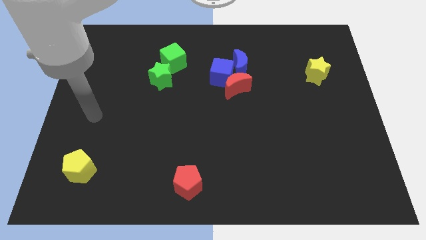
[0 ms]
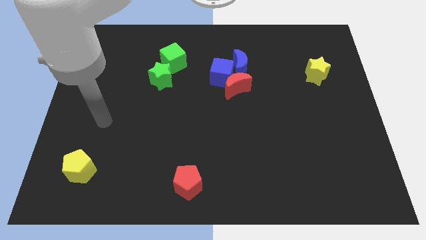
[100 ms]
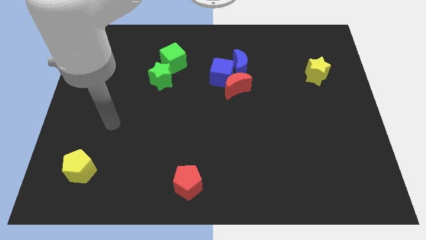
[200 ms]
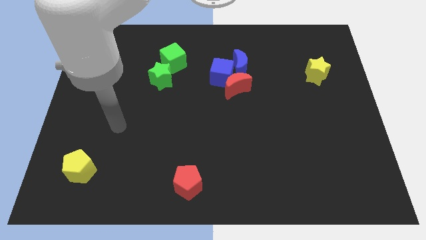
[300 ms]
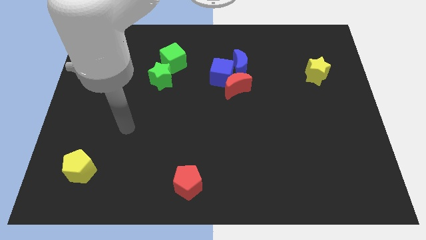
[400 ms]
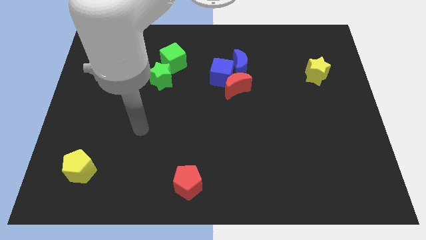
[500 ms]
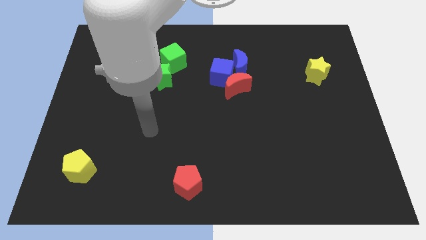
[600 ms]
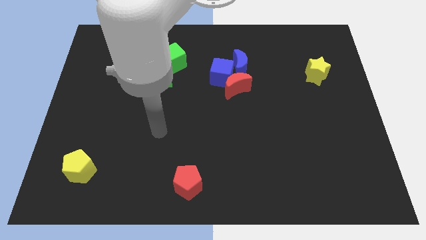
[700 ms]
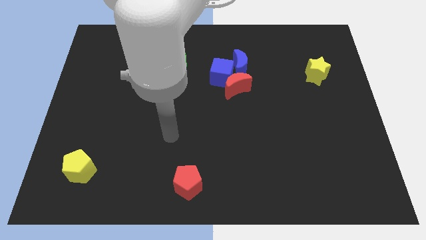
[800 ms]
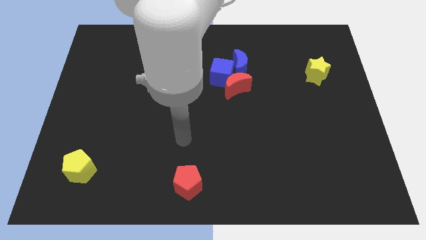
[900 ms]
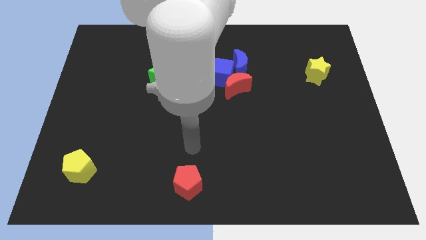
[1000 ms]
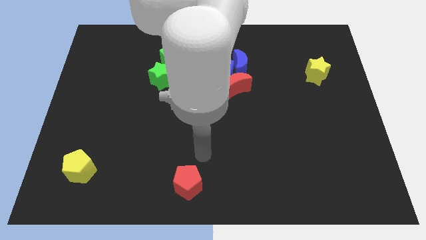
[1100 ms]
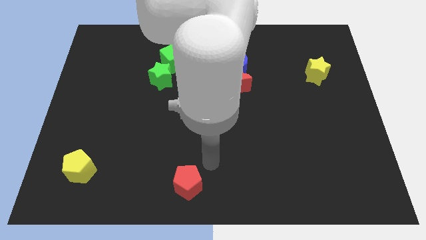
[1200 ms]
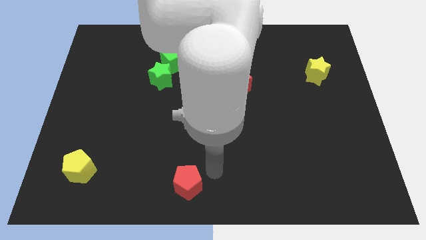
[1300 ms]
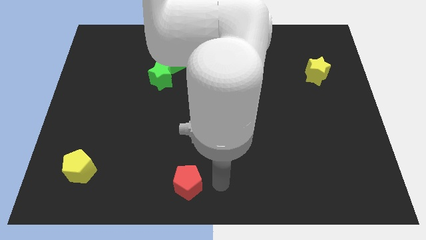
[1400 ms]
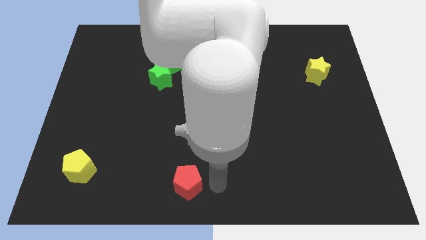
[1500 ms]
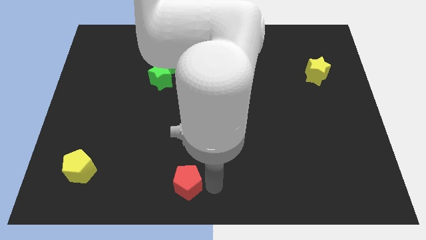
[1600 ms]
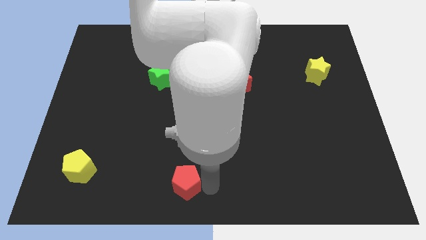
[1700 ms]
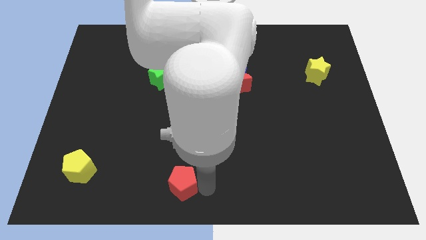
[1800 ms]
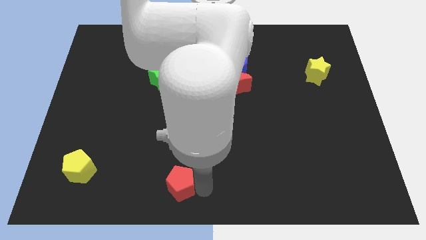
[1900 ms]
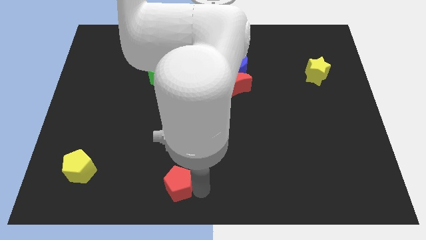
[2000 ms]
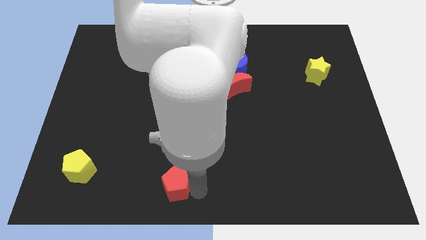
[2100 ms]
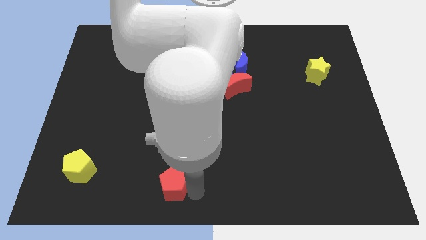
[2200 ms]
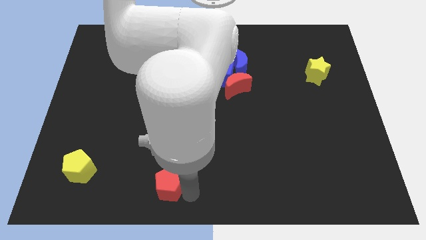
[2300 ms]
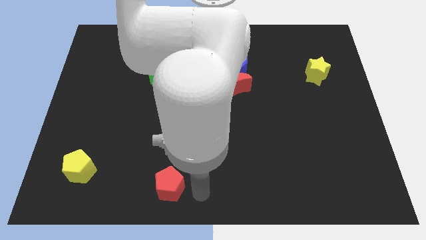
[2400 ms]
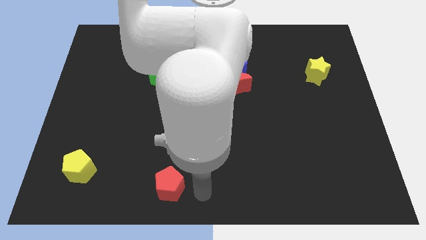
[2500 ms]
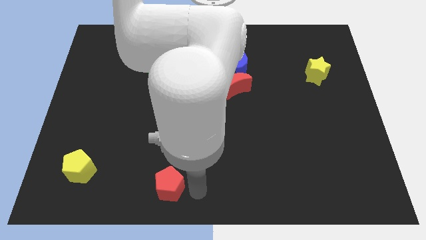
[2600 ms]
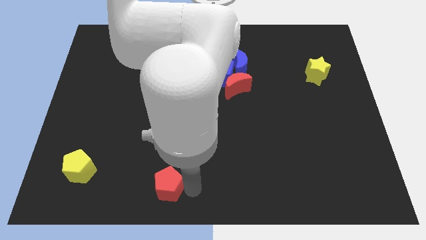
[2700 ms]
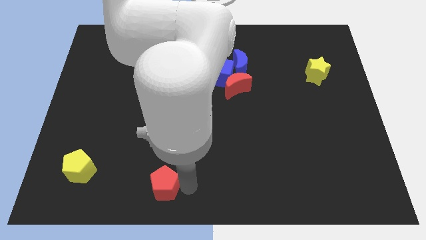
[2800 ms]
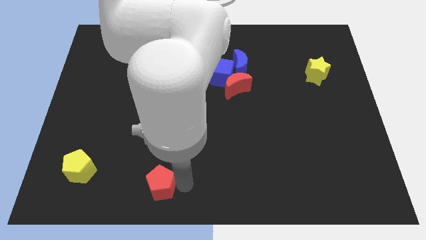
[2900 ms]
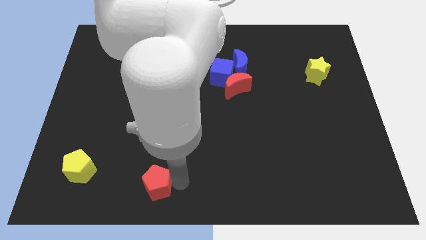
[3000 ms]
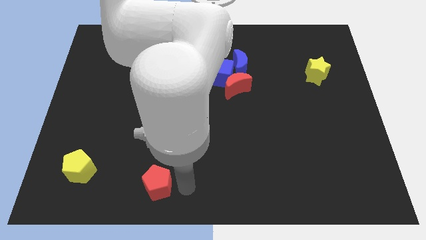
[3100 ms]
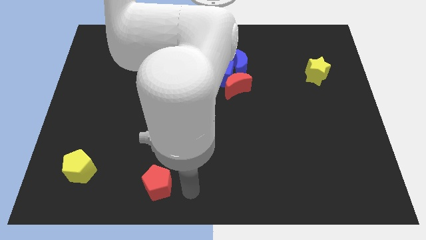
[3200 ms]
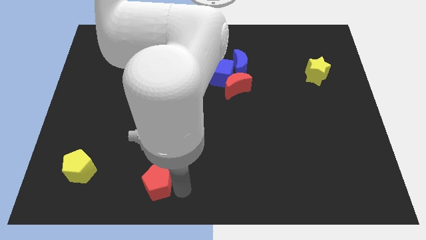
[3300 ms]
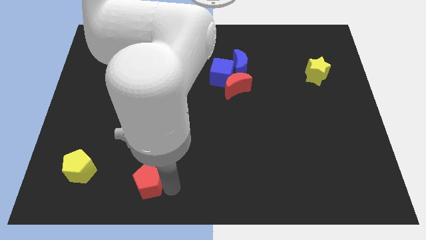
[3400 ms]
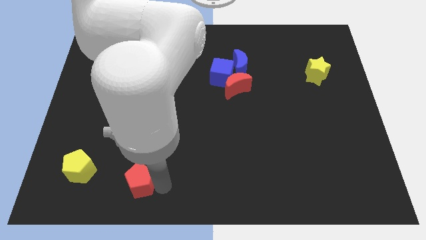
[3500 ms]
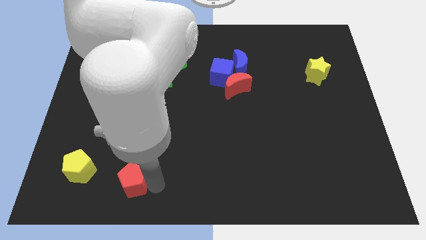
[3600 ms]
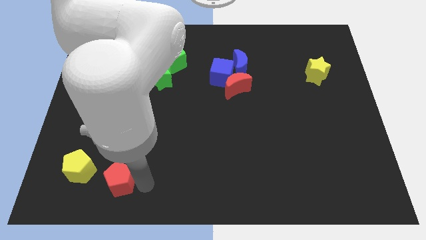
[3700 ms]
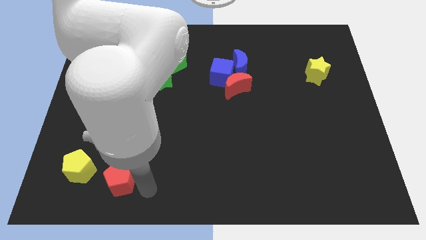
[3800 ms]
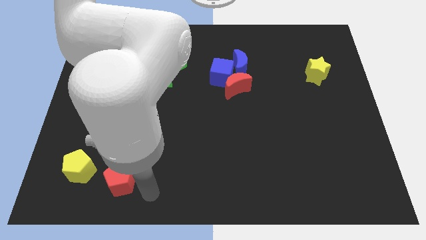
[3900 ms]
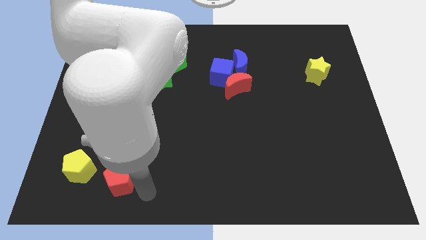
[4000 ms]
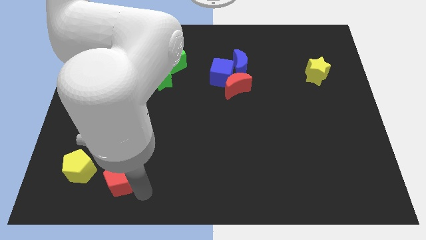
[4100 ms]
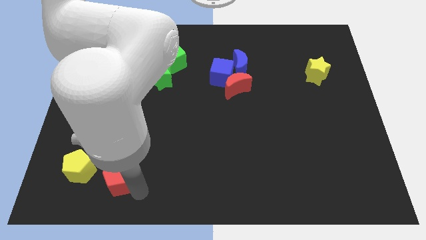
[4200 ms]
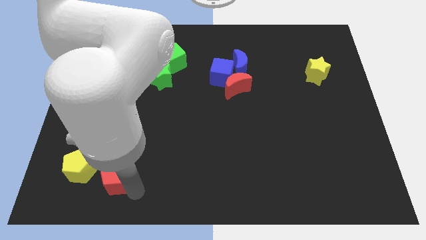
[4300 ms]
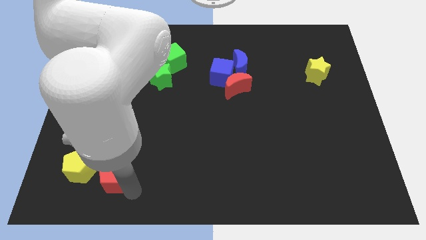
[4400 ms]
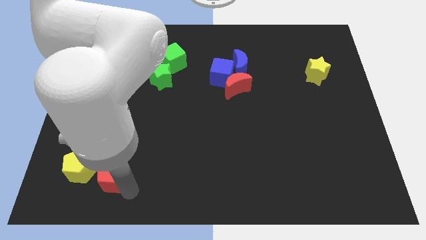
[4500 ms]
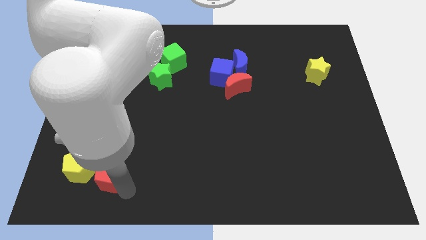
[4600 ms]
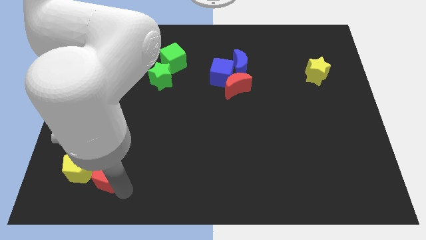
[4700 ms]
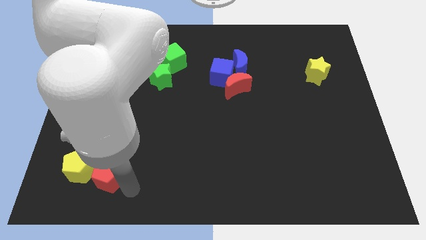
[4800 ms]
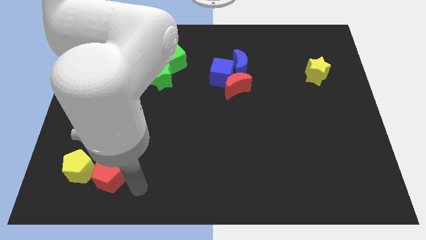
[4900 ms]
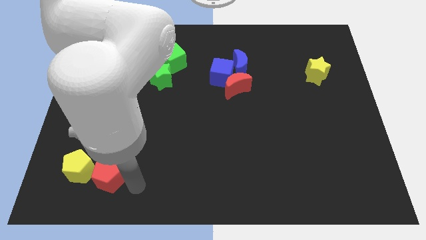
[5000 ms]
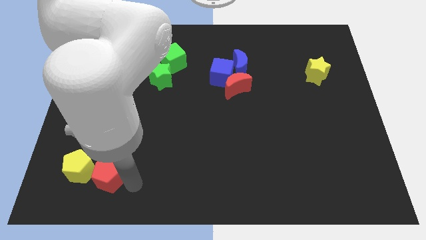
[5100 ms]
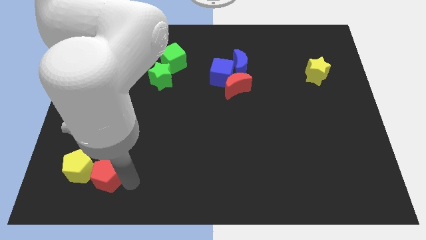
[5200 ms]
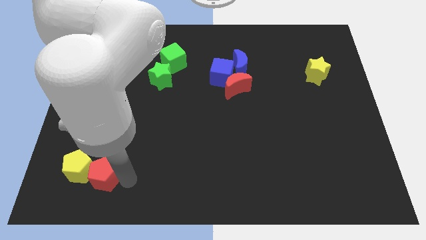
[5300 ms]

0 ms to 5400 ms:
push the red pentagon next to the yellow pentagon

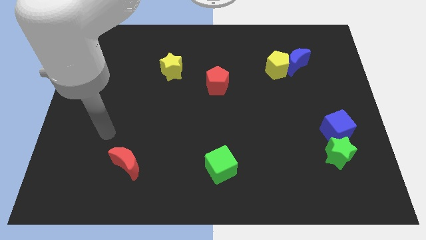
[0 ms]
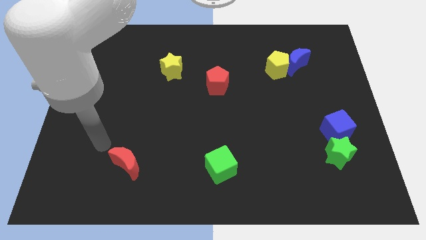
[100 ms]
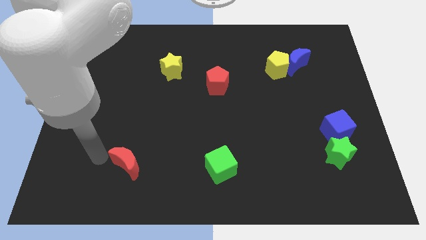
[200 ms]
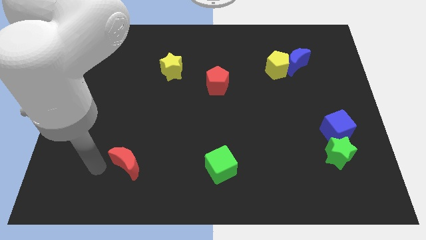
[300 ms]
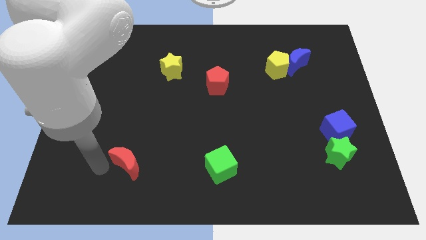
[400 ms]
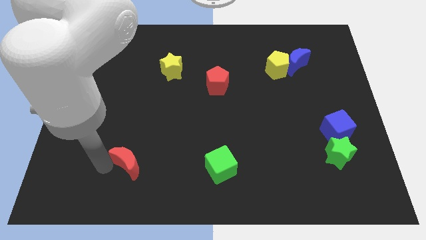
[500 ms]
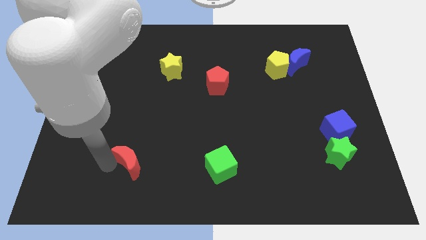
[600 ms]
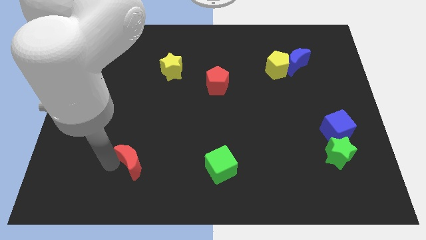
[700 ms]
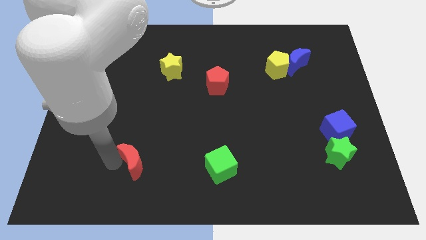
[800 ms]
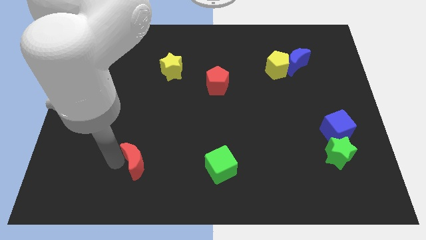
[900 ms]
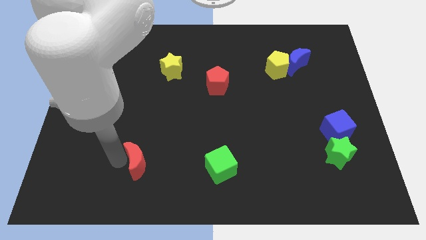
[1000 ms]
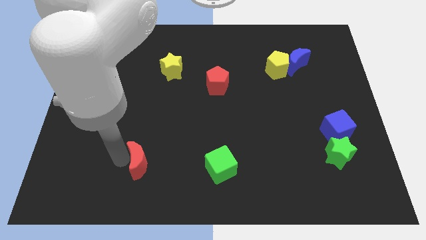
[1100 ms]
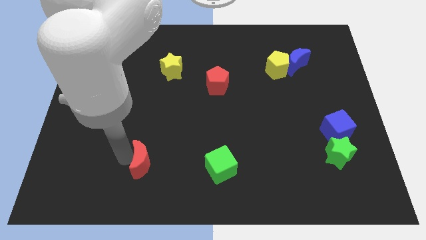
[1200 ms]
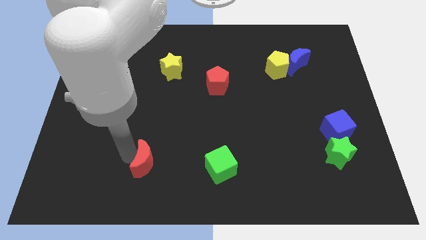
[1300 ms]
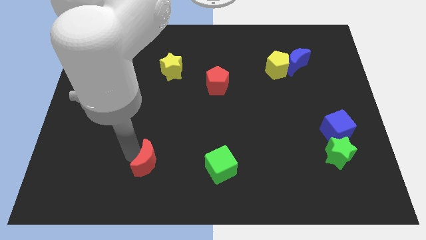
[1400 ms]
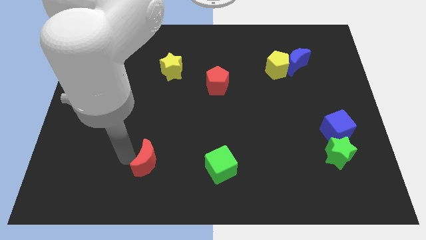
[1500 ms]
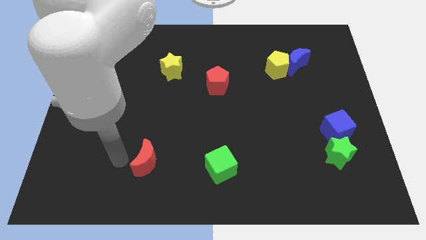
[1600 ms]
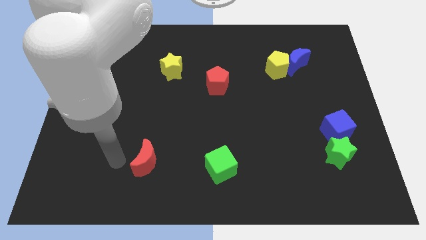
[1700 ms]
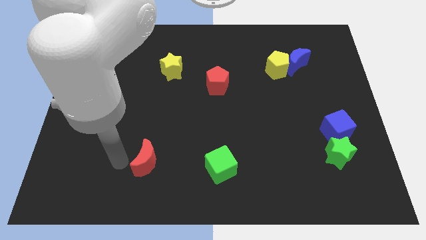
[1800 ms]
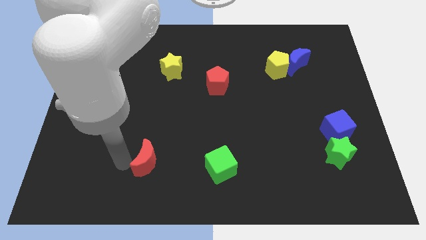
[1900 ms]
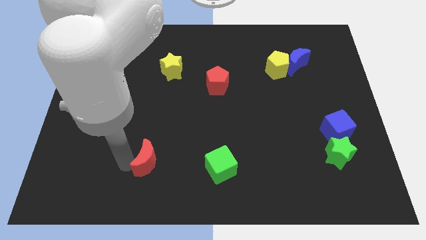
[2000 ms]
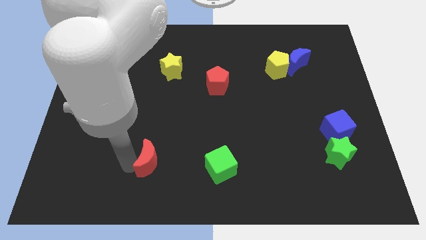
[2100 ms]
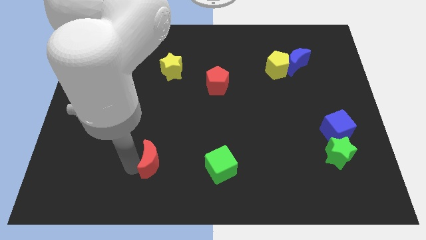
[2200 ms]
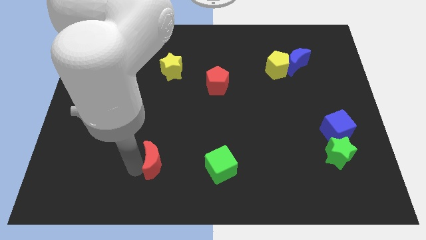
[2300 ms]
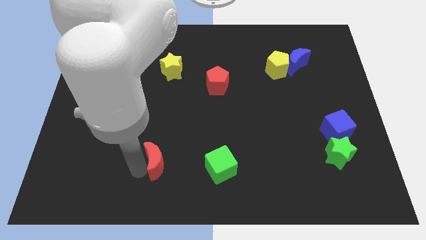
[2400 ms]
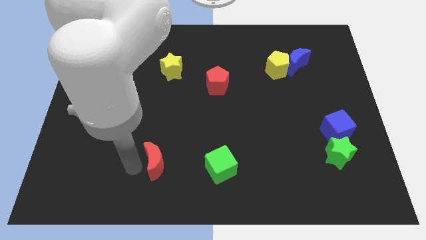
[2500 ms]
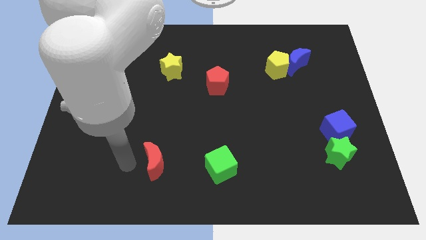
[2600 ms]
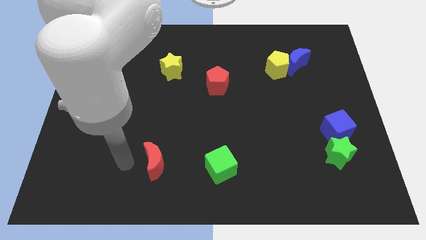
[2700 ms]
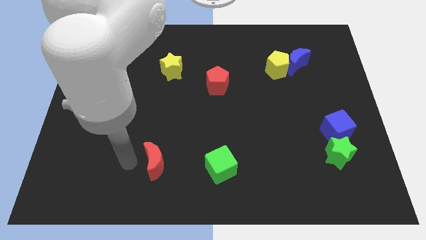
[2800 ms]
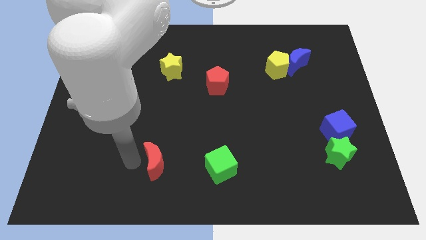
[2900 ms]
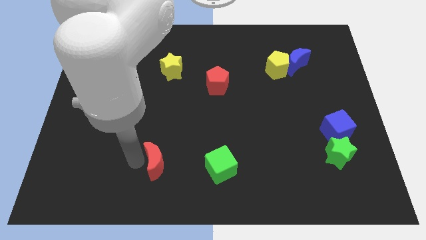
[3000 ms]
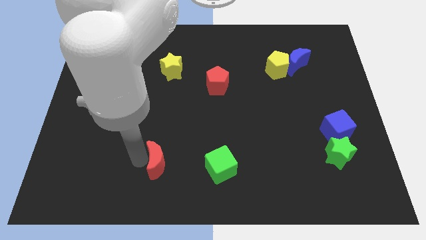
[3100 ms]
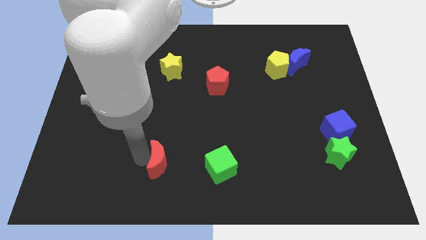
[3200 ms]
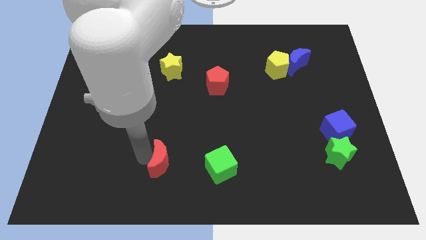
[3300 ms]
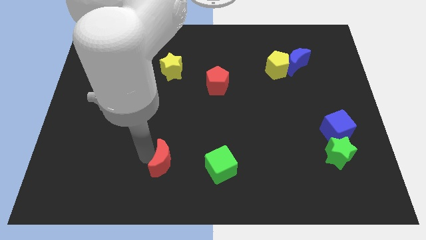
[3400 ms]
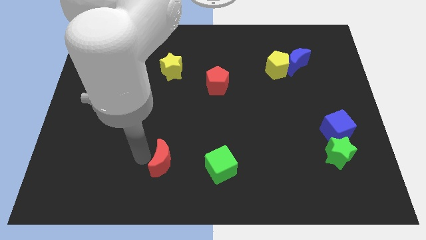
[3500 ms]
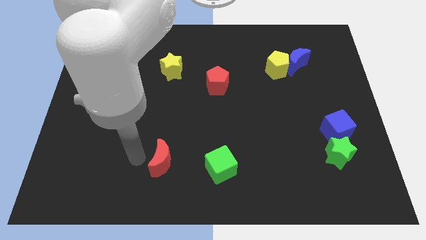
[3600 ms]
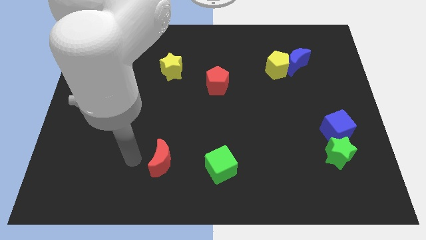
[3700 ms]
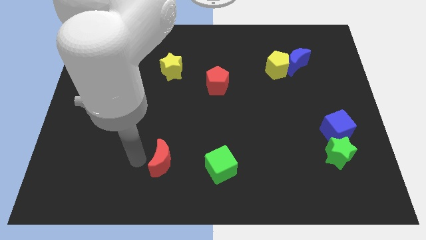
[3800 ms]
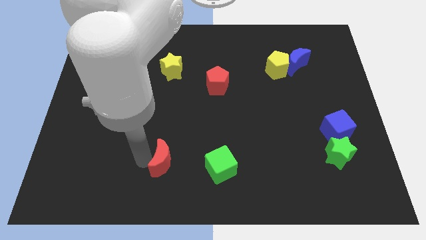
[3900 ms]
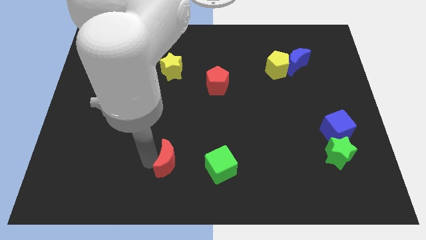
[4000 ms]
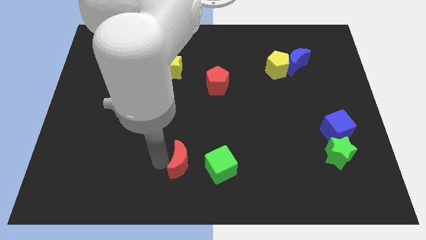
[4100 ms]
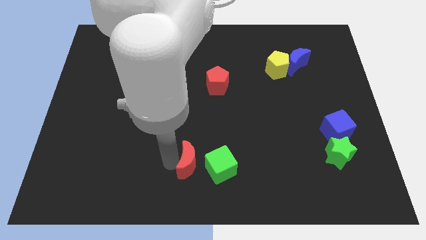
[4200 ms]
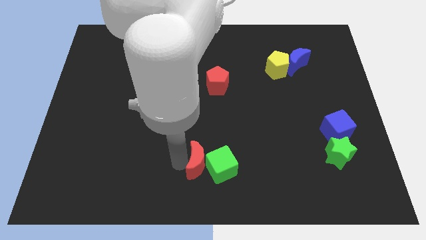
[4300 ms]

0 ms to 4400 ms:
move the red moon close to the green cube
